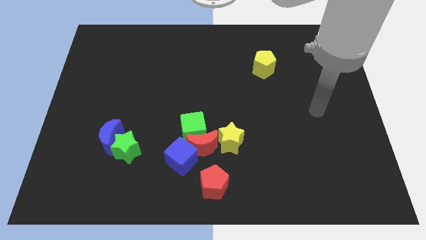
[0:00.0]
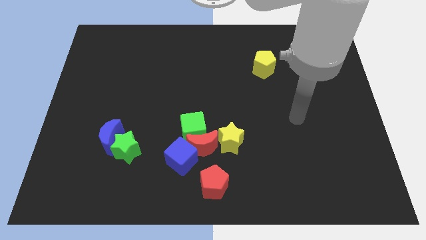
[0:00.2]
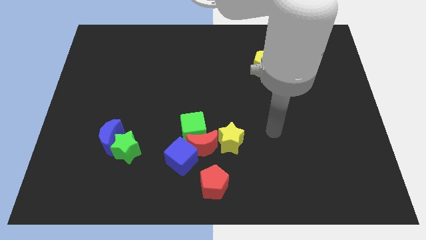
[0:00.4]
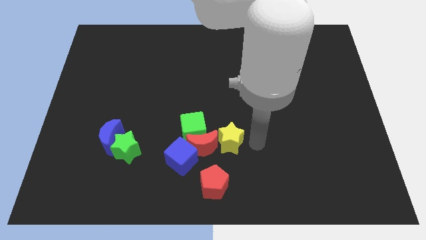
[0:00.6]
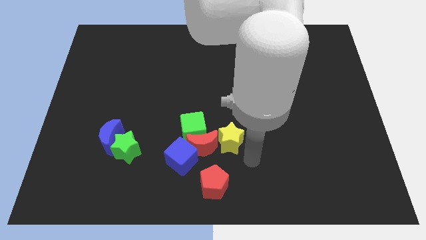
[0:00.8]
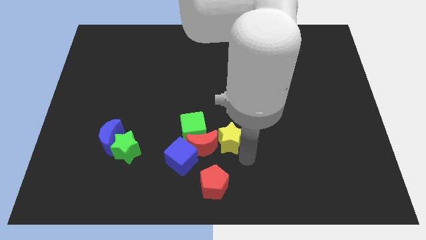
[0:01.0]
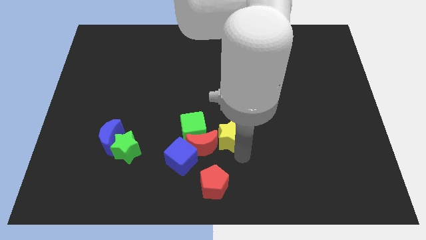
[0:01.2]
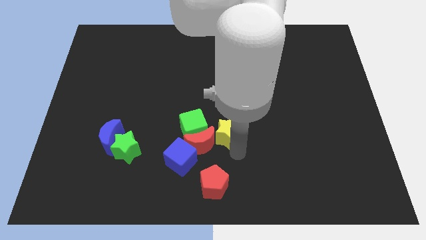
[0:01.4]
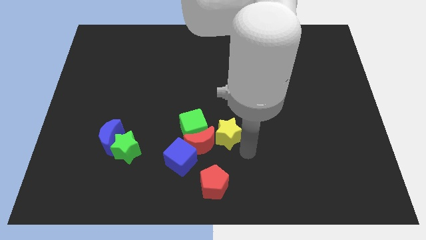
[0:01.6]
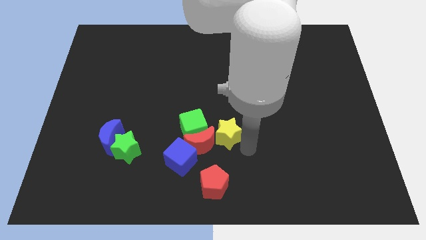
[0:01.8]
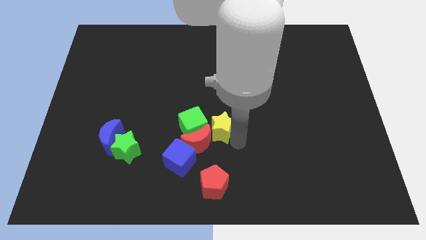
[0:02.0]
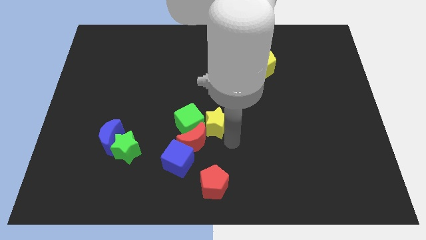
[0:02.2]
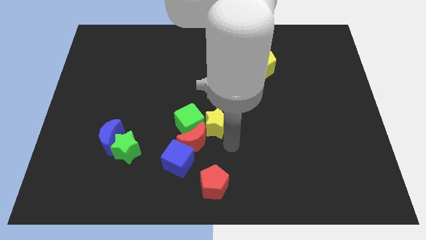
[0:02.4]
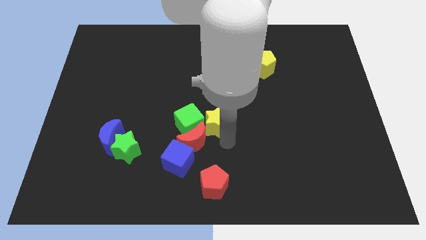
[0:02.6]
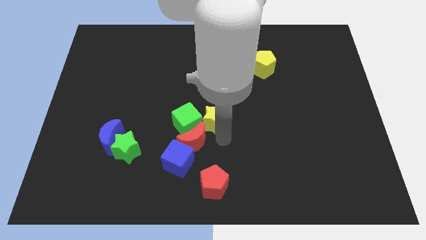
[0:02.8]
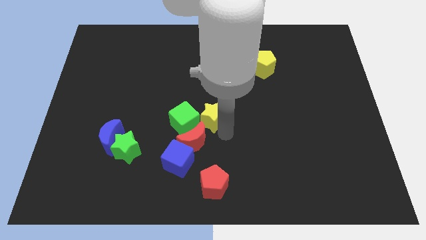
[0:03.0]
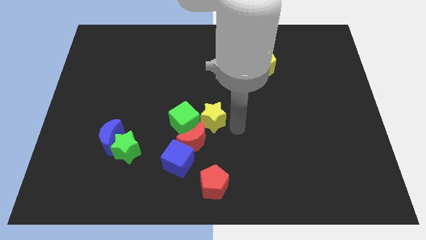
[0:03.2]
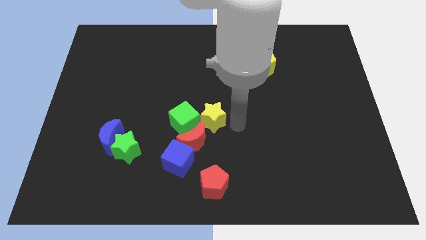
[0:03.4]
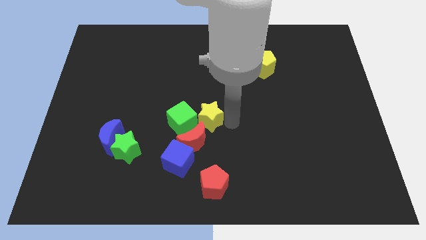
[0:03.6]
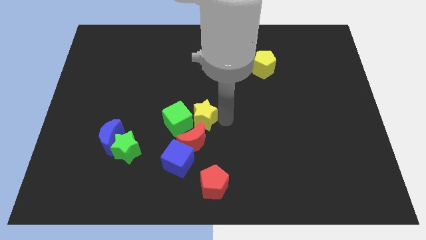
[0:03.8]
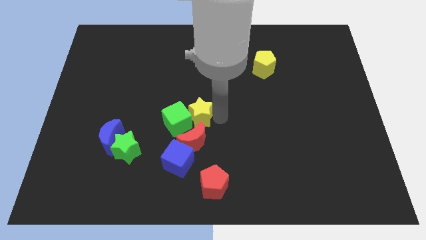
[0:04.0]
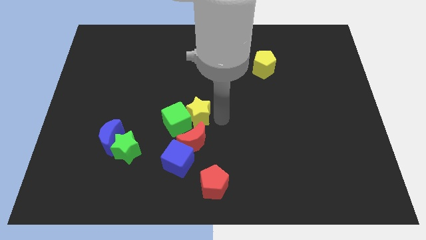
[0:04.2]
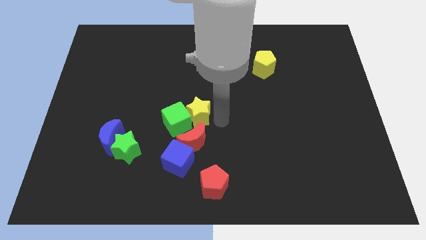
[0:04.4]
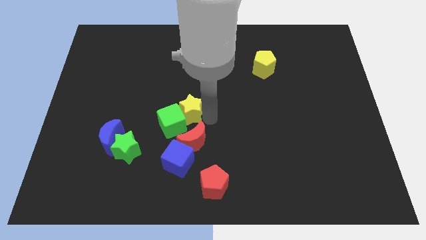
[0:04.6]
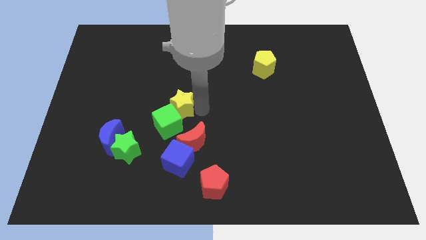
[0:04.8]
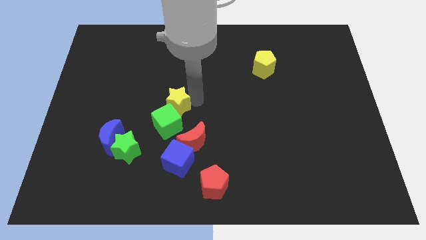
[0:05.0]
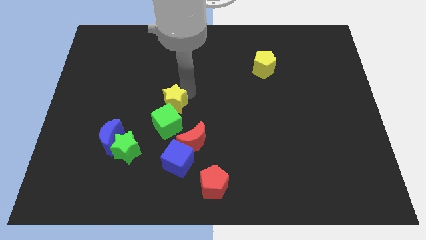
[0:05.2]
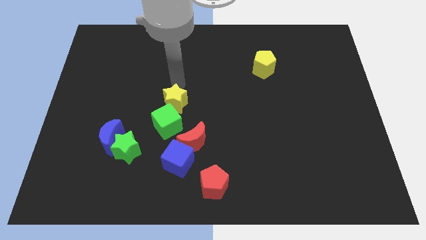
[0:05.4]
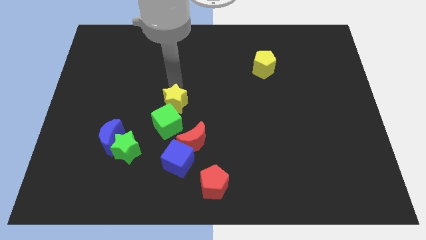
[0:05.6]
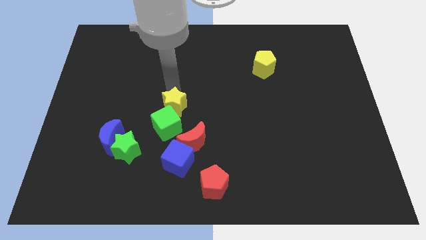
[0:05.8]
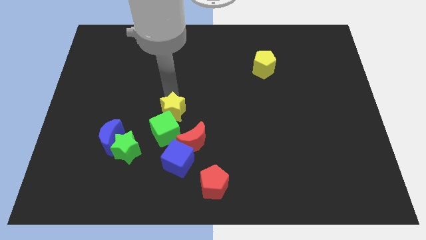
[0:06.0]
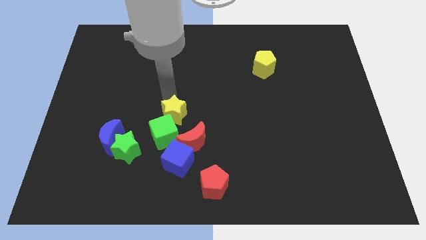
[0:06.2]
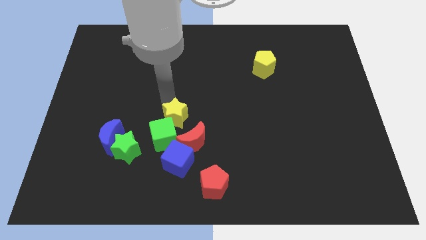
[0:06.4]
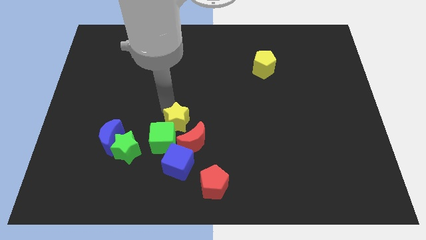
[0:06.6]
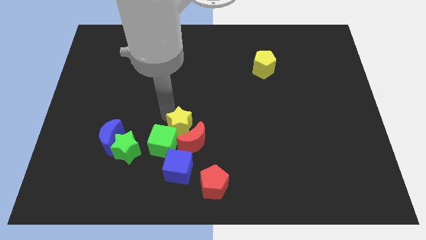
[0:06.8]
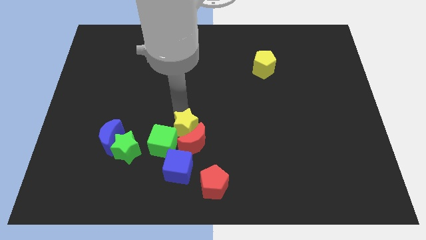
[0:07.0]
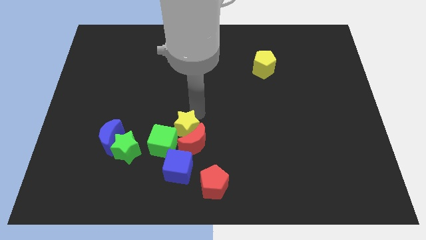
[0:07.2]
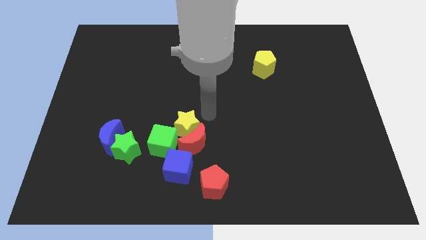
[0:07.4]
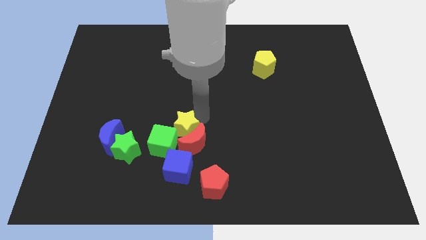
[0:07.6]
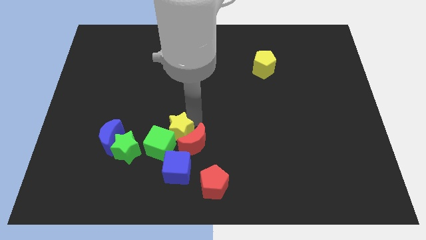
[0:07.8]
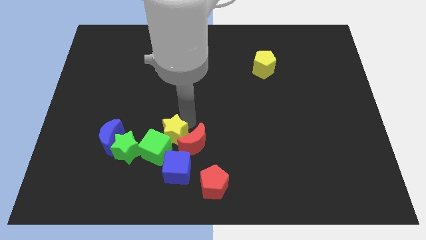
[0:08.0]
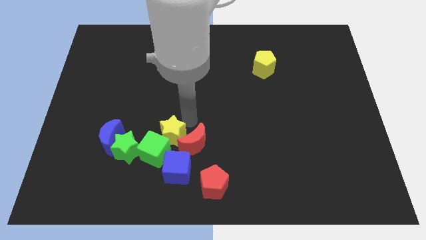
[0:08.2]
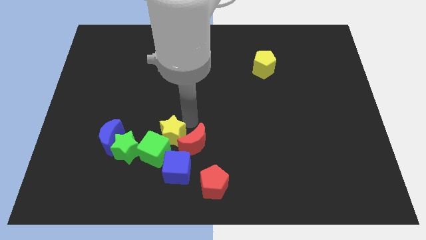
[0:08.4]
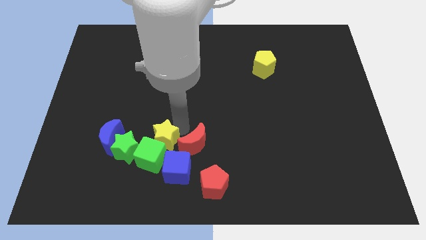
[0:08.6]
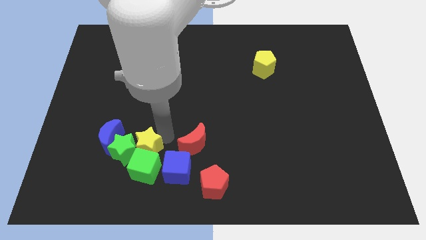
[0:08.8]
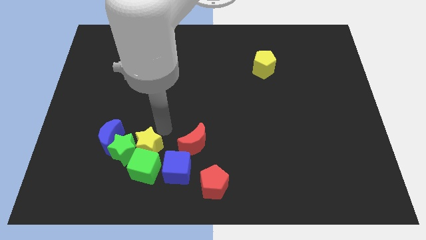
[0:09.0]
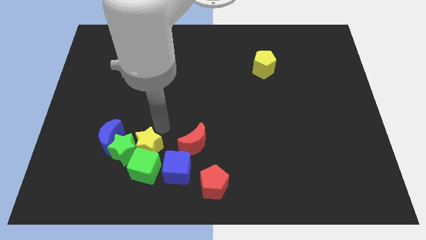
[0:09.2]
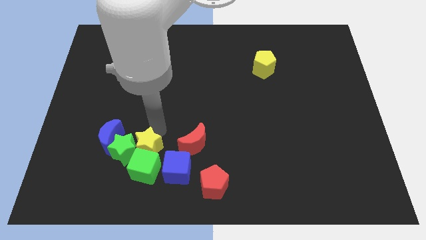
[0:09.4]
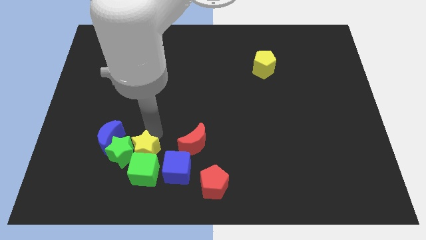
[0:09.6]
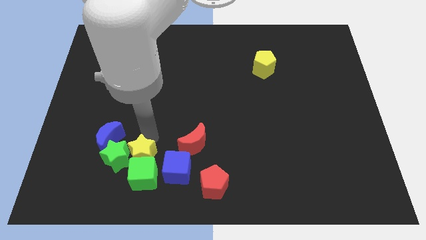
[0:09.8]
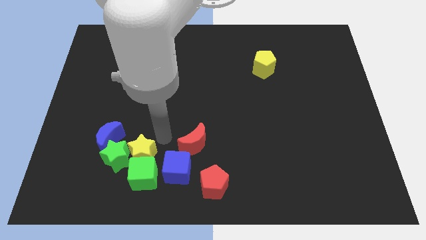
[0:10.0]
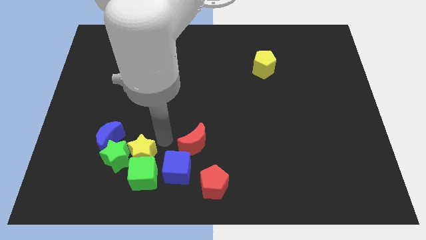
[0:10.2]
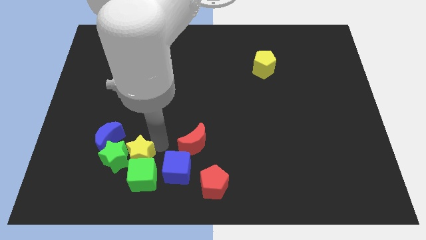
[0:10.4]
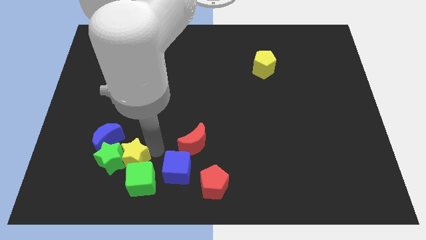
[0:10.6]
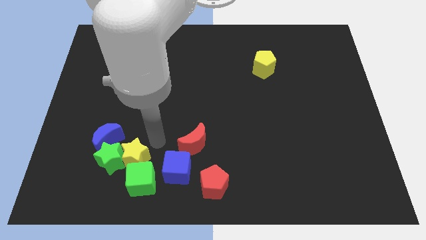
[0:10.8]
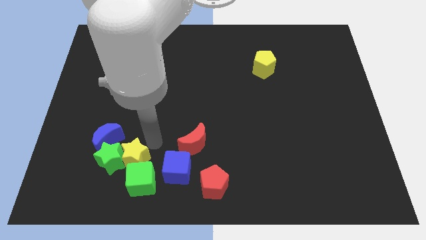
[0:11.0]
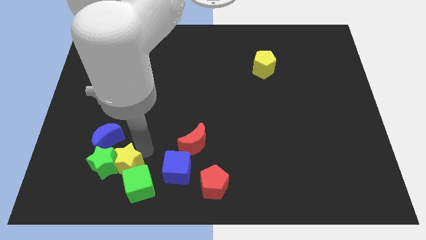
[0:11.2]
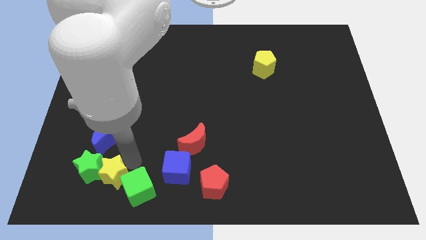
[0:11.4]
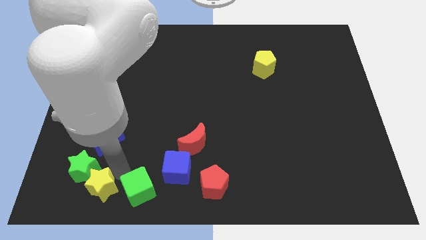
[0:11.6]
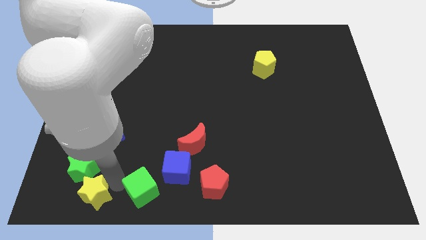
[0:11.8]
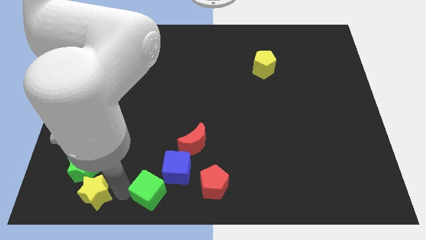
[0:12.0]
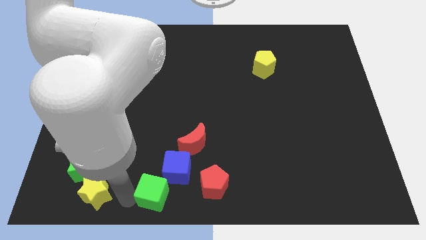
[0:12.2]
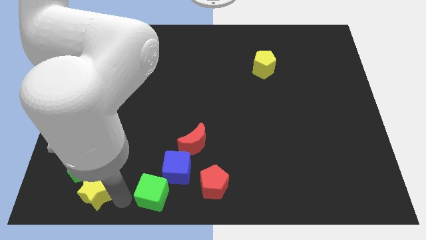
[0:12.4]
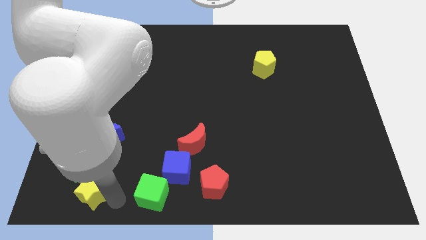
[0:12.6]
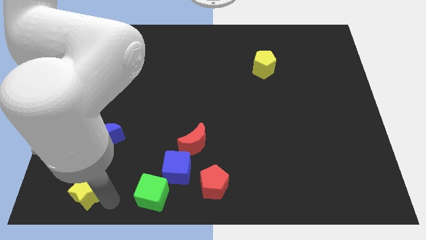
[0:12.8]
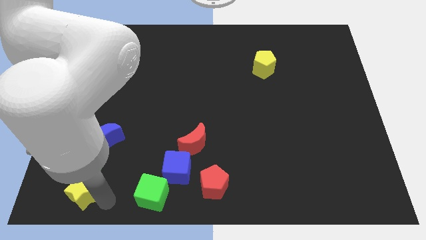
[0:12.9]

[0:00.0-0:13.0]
slide the yellow star to the bottom left corner

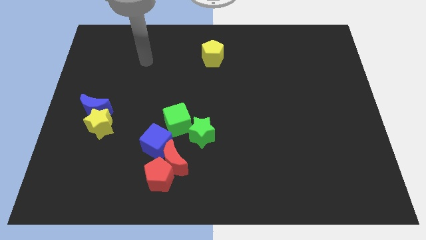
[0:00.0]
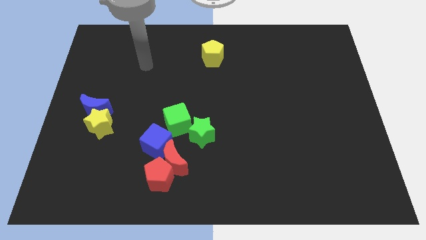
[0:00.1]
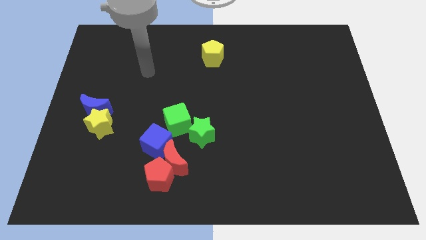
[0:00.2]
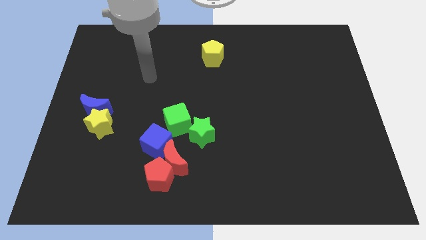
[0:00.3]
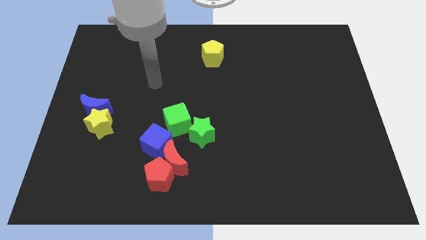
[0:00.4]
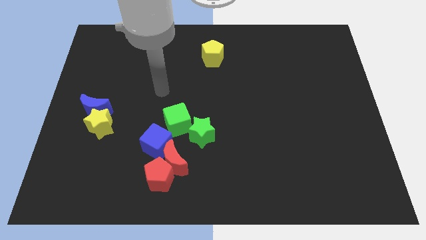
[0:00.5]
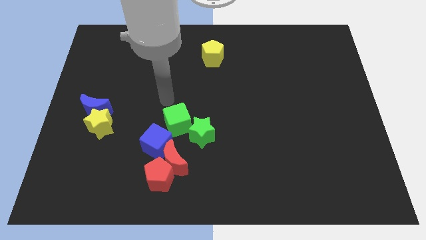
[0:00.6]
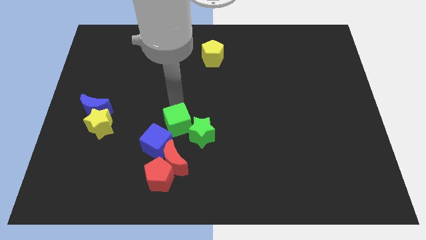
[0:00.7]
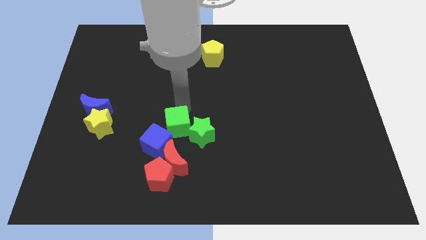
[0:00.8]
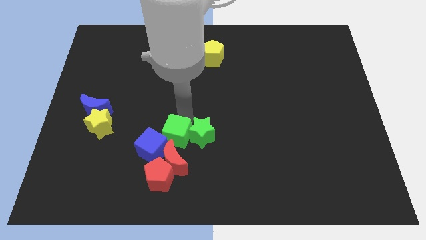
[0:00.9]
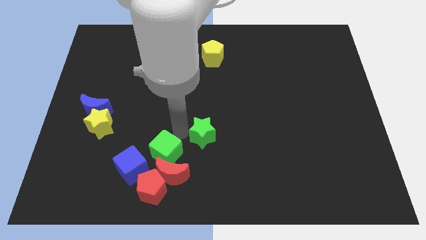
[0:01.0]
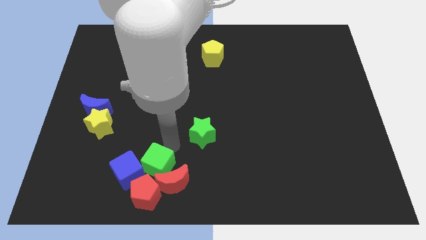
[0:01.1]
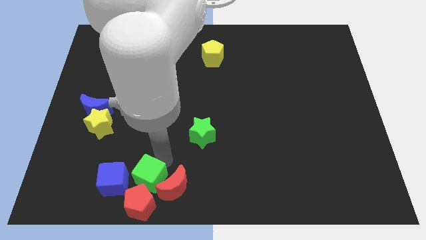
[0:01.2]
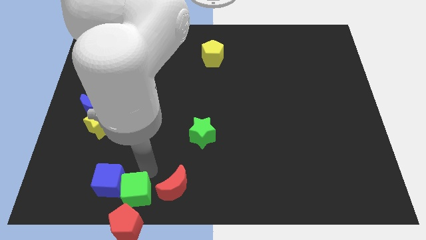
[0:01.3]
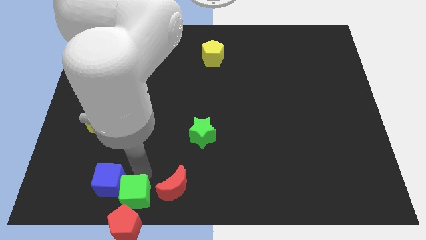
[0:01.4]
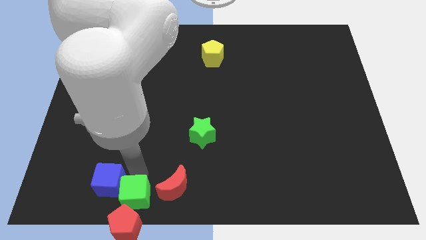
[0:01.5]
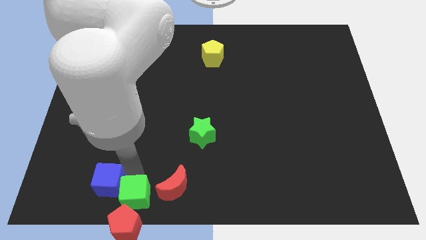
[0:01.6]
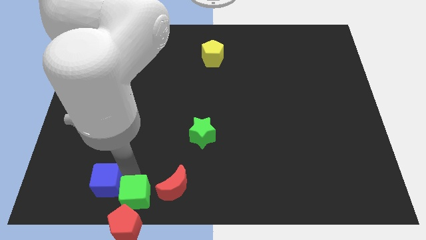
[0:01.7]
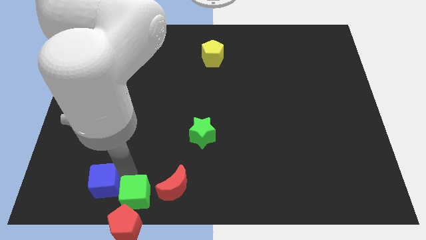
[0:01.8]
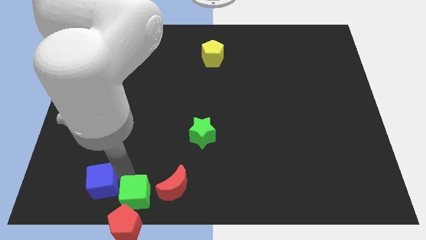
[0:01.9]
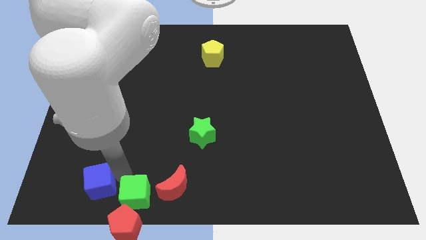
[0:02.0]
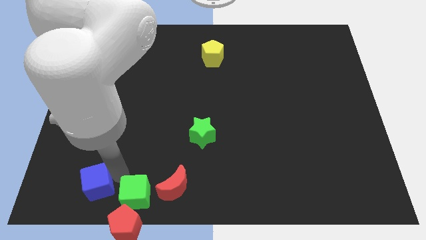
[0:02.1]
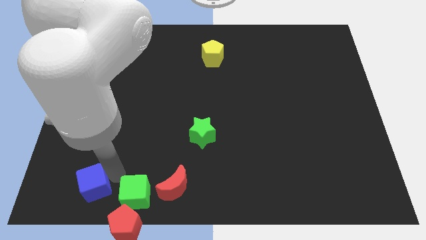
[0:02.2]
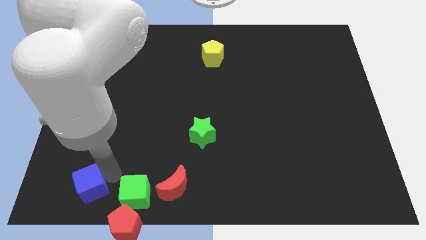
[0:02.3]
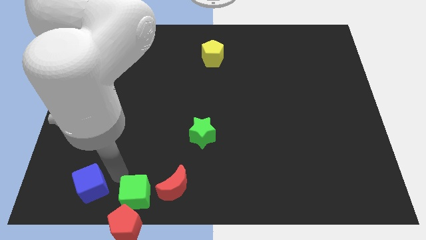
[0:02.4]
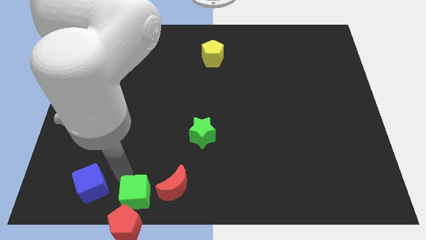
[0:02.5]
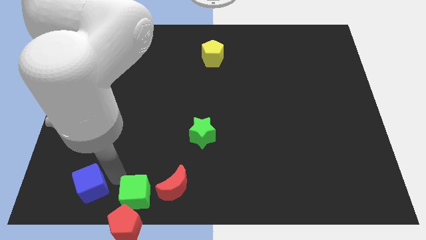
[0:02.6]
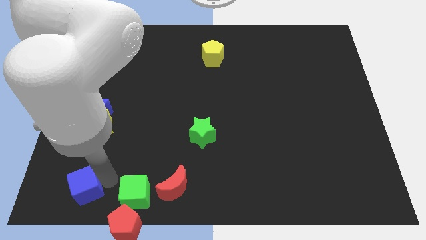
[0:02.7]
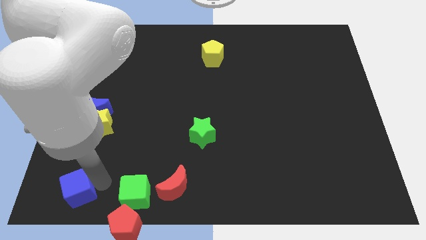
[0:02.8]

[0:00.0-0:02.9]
push the blue cube to the bottom left
